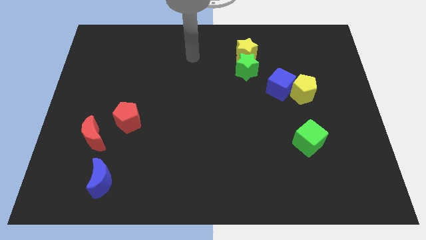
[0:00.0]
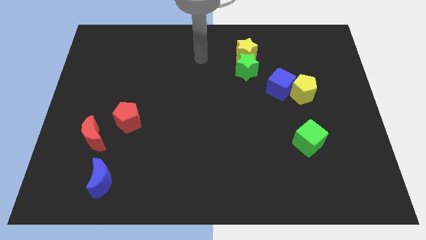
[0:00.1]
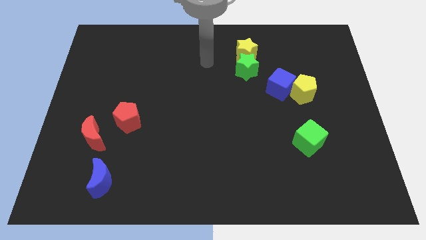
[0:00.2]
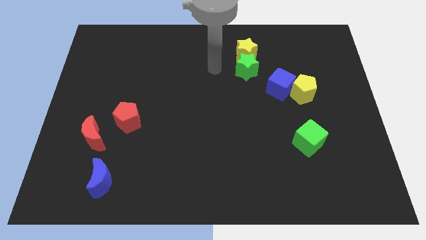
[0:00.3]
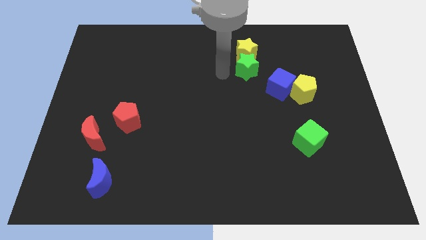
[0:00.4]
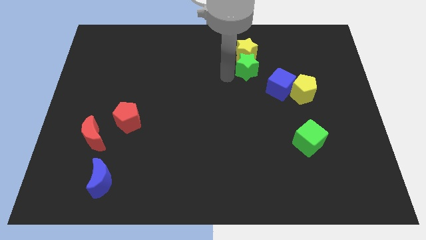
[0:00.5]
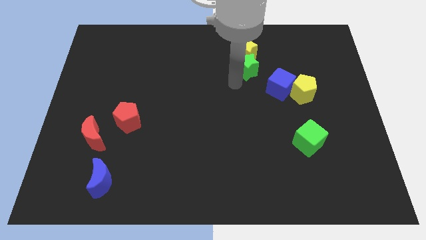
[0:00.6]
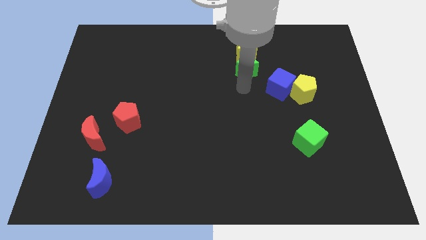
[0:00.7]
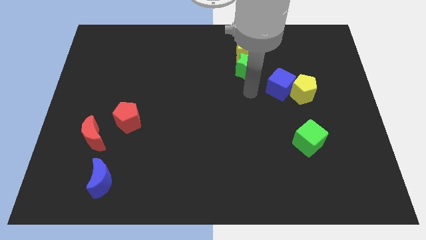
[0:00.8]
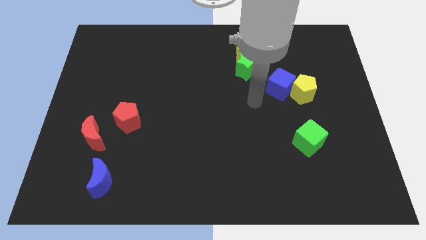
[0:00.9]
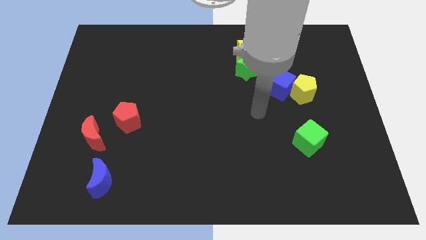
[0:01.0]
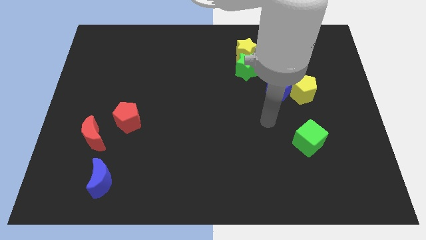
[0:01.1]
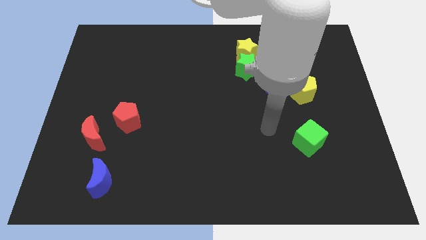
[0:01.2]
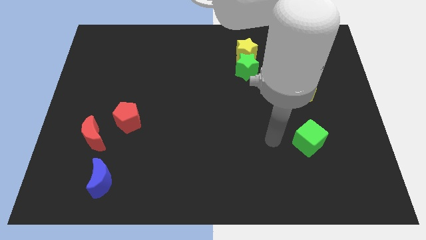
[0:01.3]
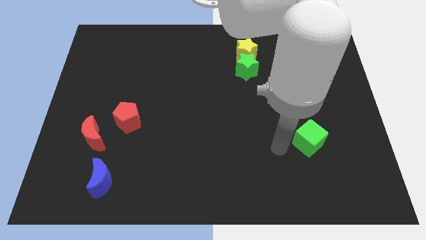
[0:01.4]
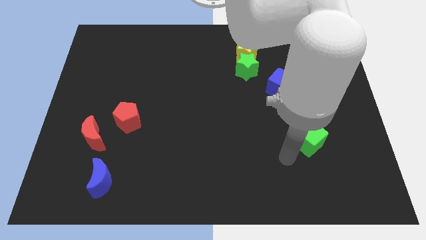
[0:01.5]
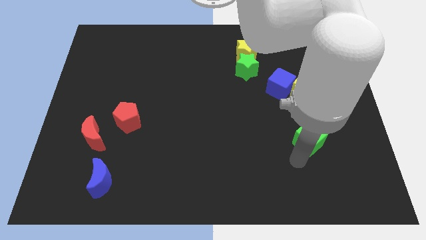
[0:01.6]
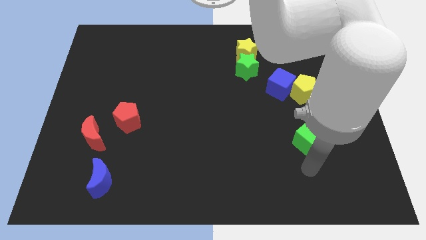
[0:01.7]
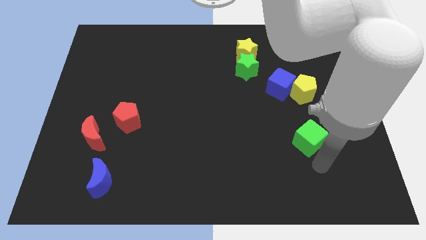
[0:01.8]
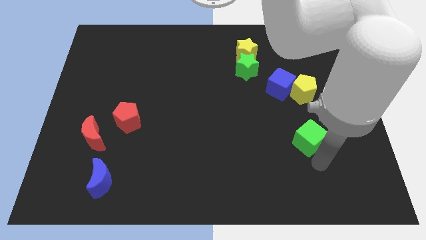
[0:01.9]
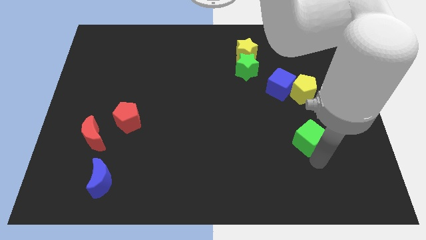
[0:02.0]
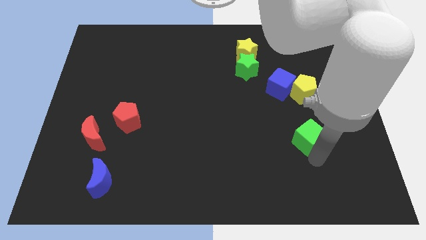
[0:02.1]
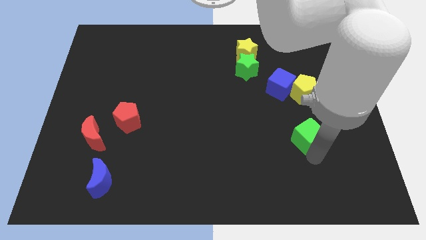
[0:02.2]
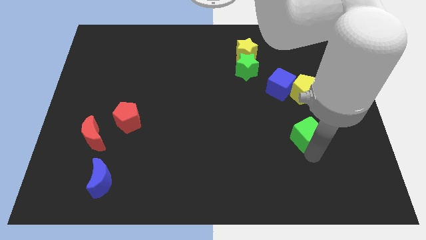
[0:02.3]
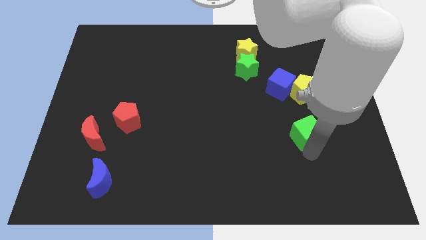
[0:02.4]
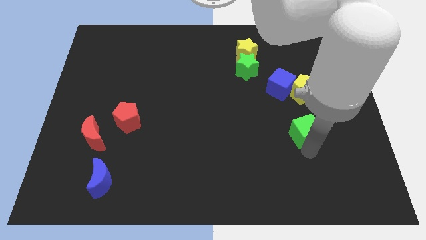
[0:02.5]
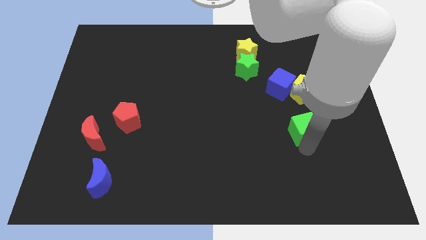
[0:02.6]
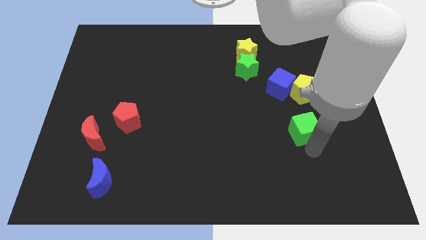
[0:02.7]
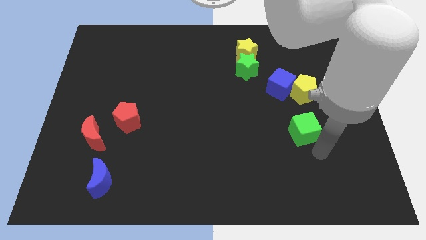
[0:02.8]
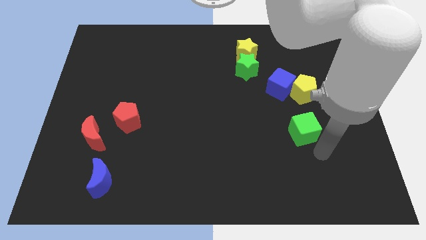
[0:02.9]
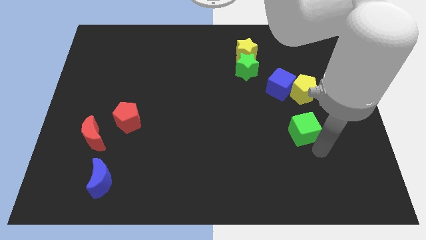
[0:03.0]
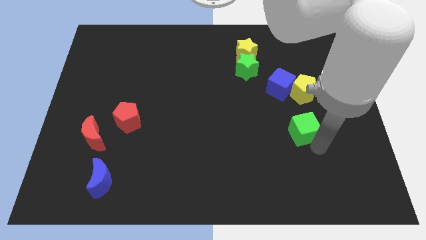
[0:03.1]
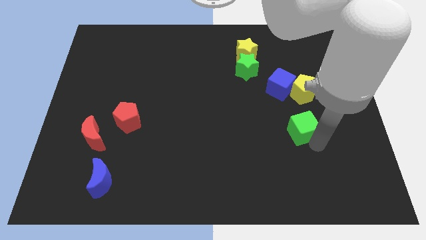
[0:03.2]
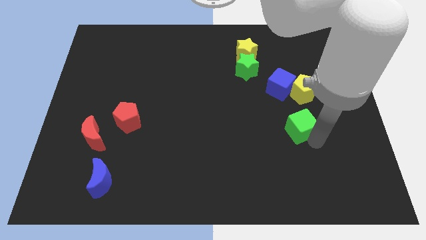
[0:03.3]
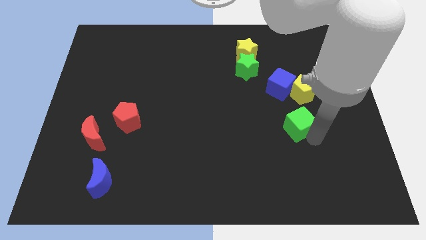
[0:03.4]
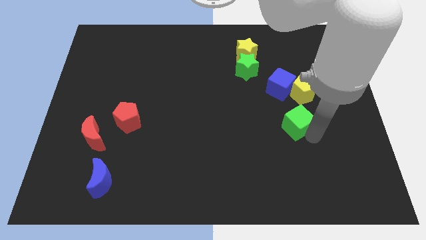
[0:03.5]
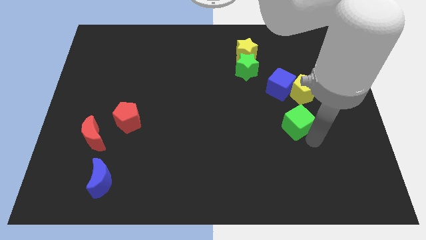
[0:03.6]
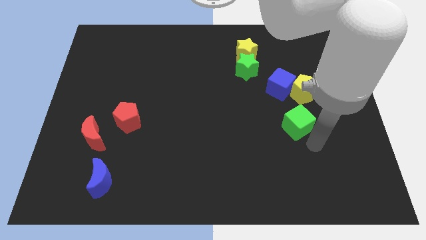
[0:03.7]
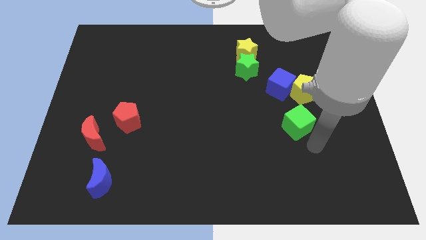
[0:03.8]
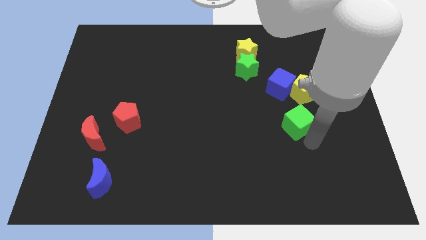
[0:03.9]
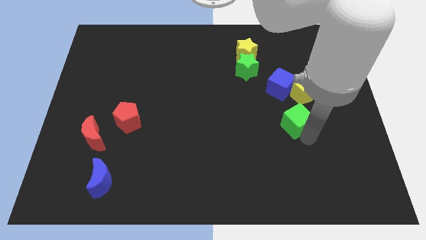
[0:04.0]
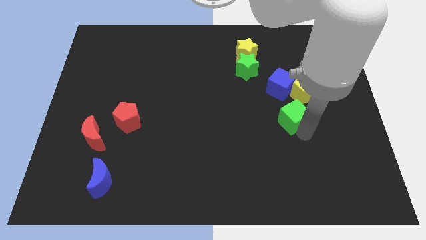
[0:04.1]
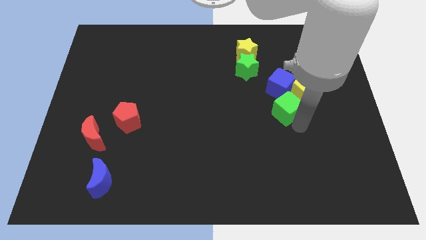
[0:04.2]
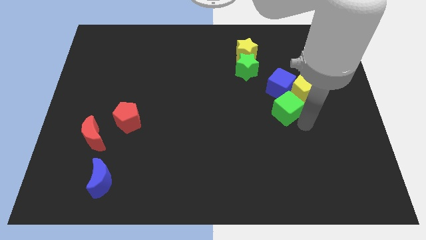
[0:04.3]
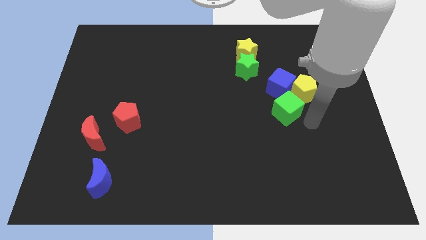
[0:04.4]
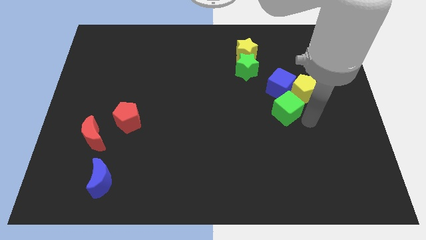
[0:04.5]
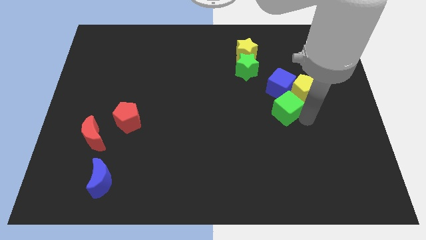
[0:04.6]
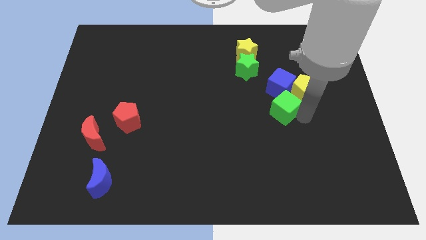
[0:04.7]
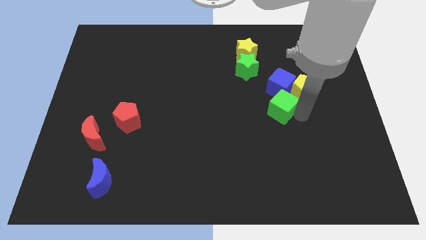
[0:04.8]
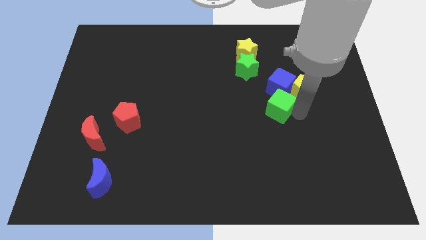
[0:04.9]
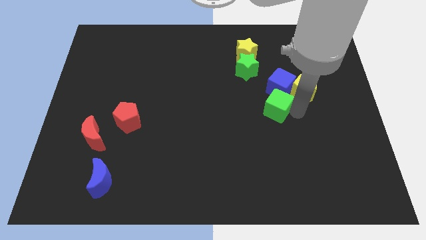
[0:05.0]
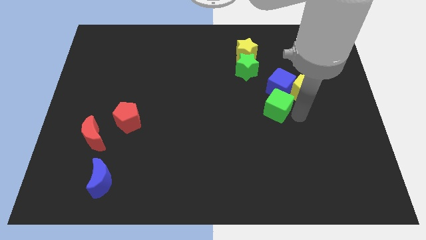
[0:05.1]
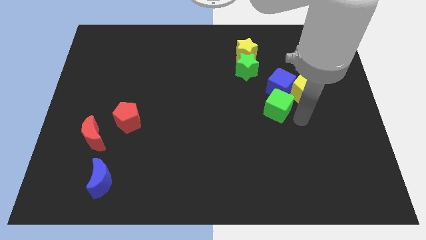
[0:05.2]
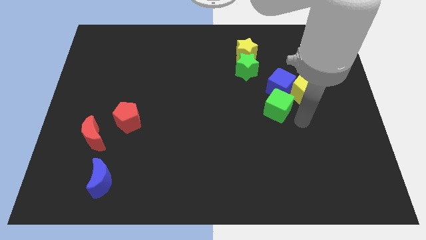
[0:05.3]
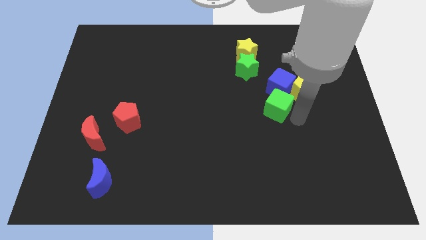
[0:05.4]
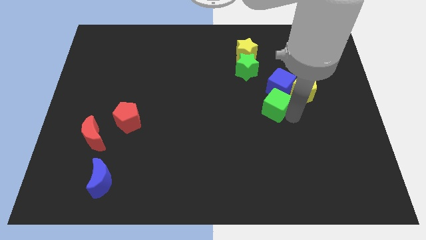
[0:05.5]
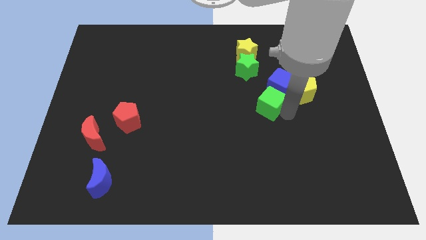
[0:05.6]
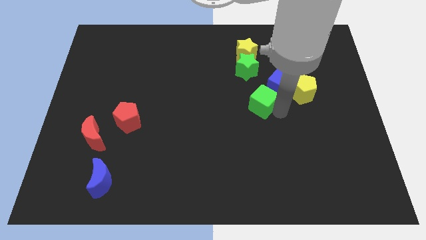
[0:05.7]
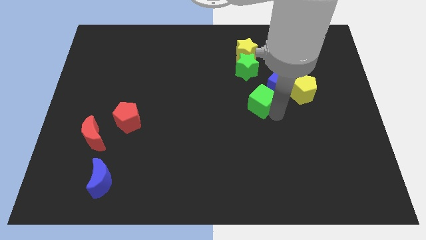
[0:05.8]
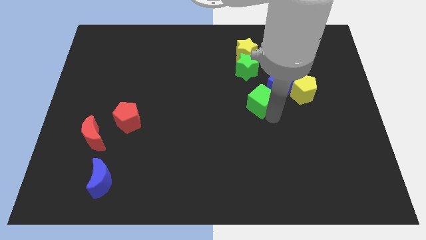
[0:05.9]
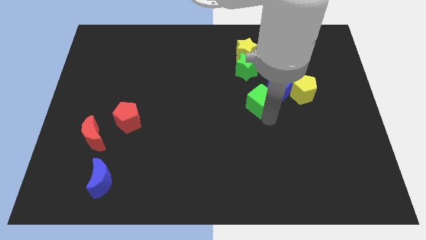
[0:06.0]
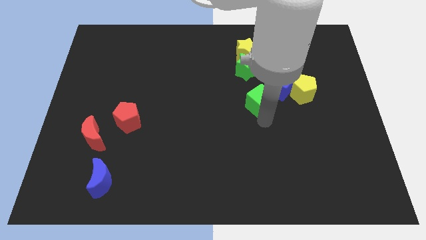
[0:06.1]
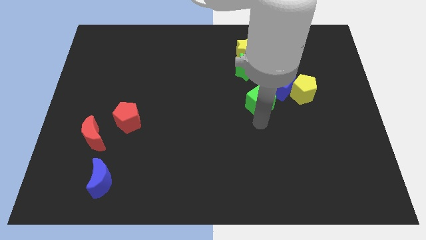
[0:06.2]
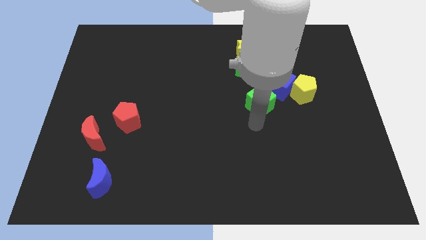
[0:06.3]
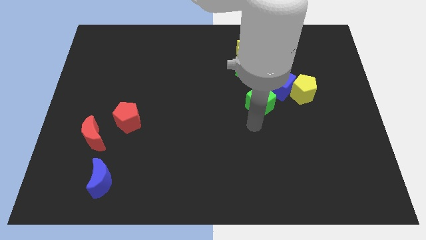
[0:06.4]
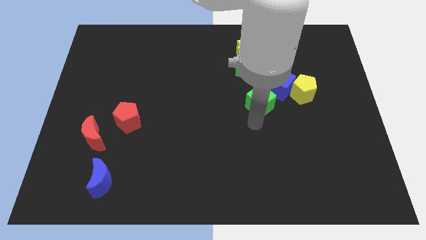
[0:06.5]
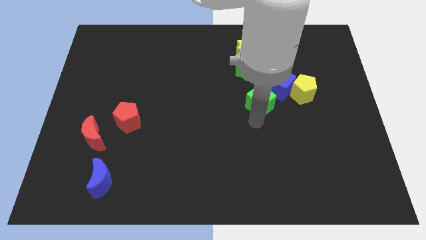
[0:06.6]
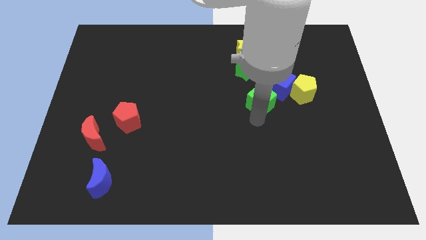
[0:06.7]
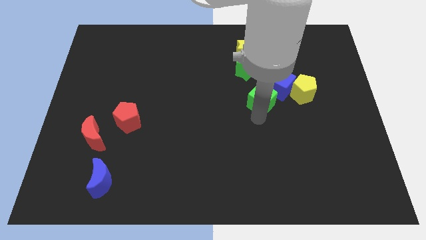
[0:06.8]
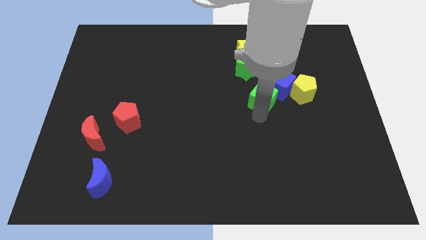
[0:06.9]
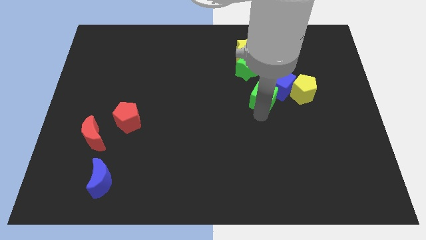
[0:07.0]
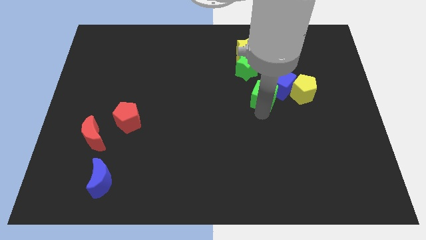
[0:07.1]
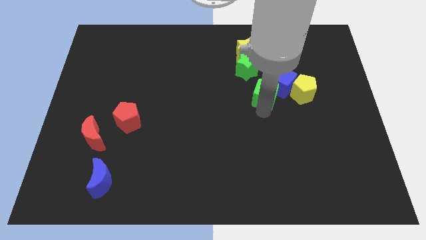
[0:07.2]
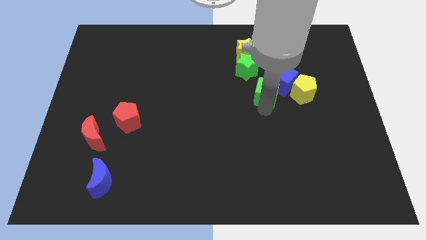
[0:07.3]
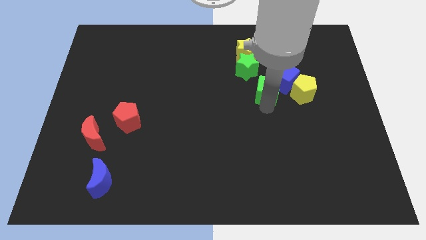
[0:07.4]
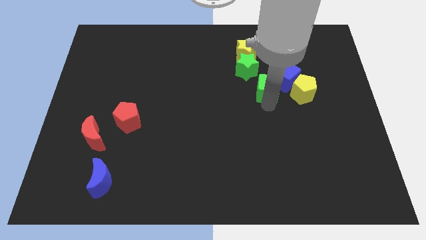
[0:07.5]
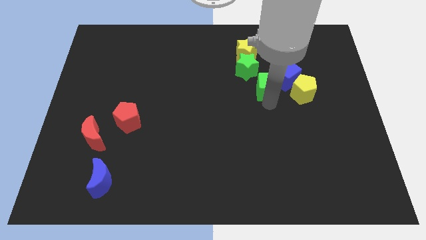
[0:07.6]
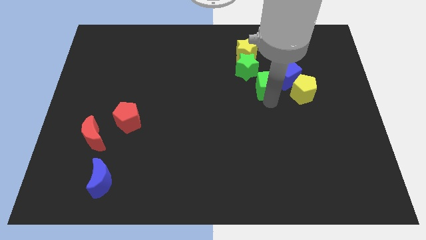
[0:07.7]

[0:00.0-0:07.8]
push the green cube to the top left of the yellow pentagon
